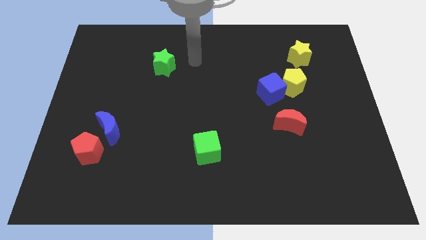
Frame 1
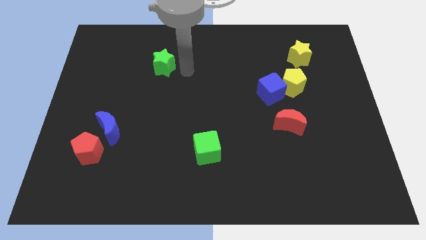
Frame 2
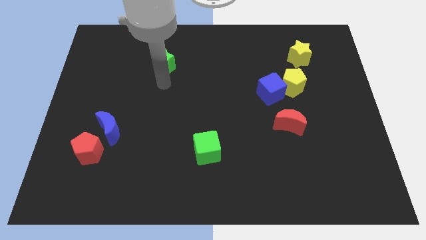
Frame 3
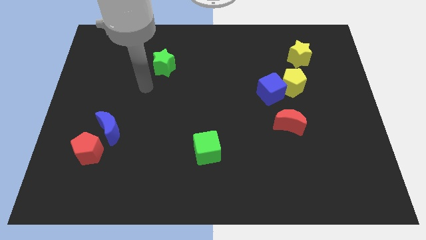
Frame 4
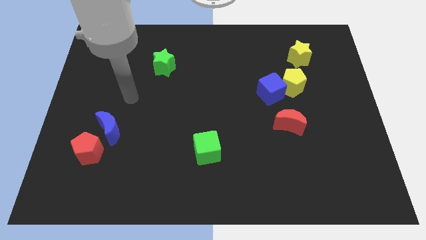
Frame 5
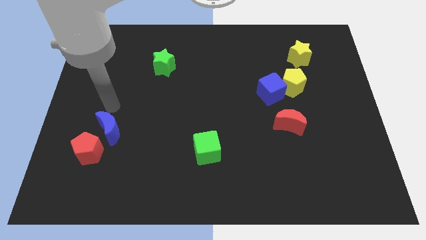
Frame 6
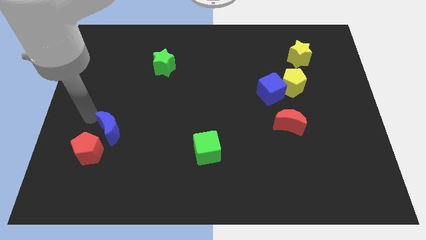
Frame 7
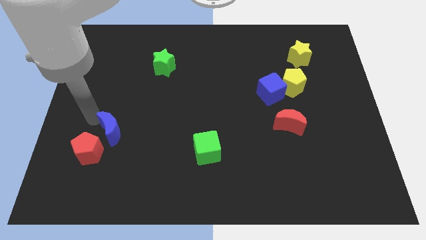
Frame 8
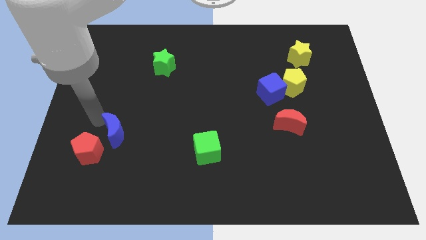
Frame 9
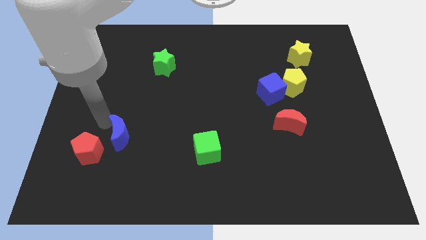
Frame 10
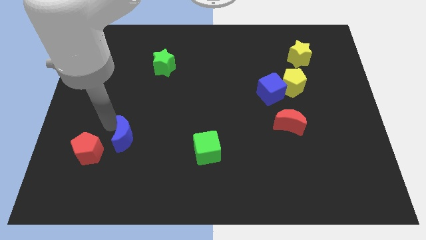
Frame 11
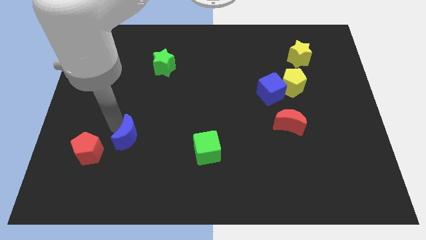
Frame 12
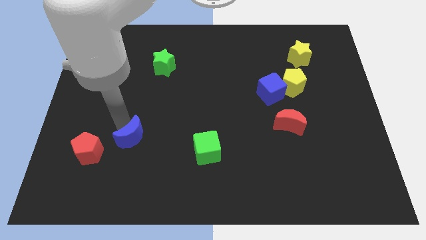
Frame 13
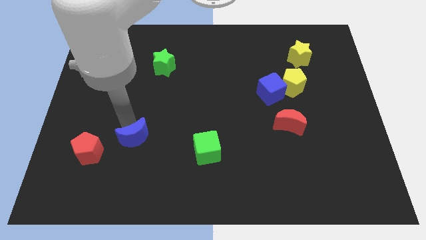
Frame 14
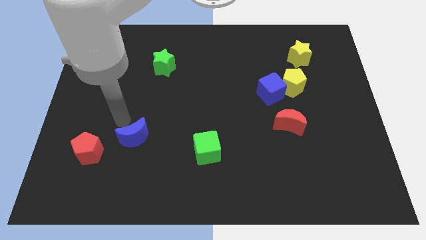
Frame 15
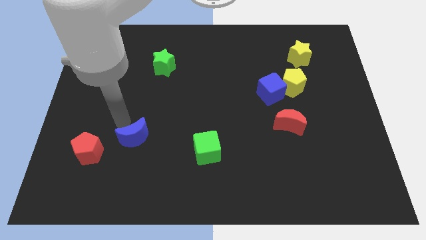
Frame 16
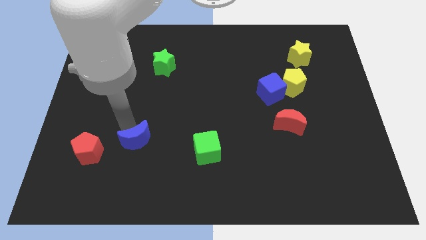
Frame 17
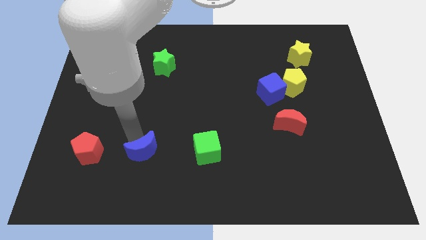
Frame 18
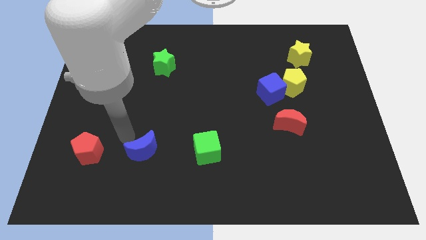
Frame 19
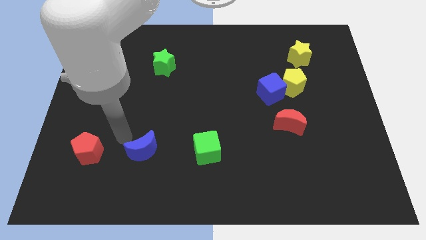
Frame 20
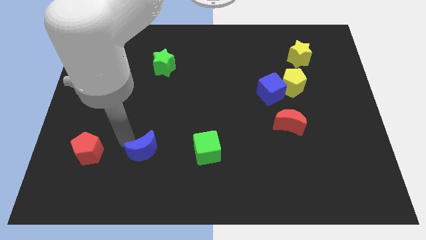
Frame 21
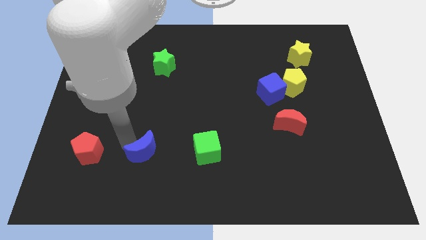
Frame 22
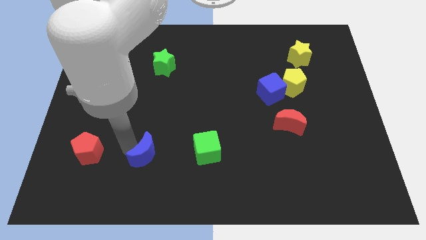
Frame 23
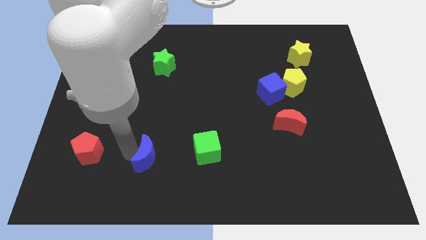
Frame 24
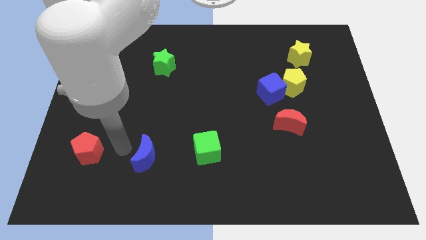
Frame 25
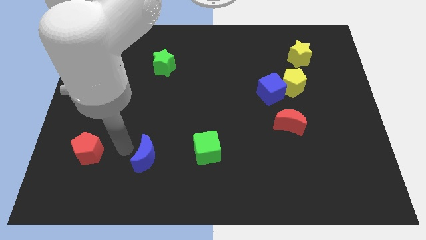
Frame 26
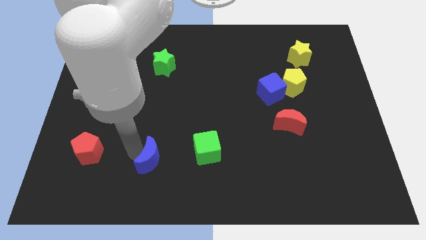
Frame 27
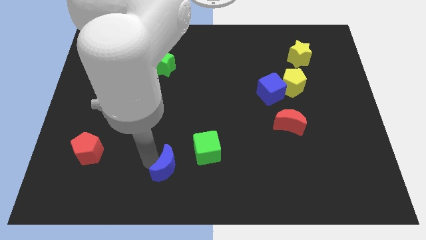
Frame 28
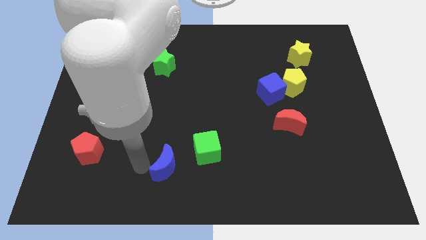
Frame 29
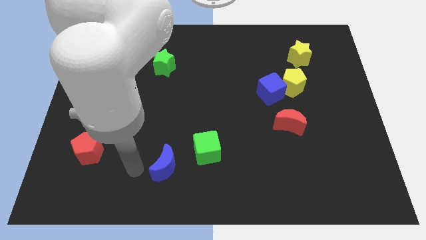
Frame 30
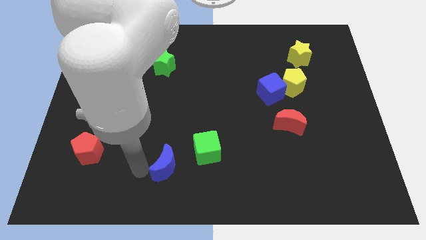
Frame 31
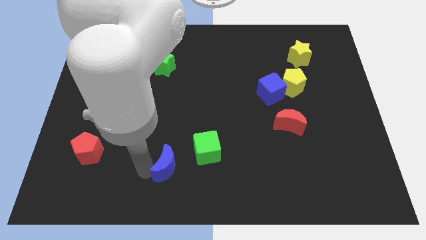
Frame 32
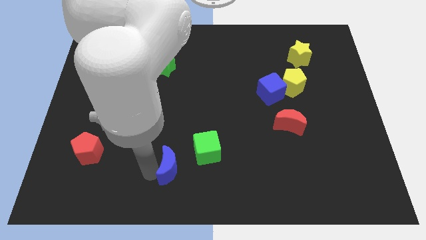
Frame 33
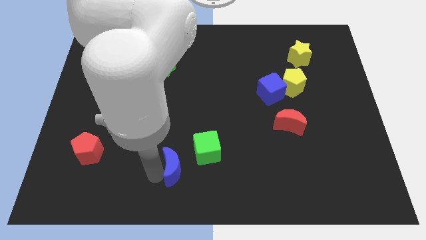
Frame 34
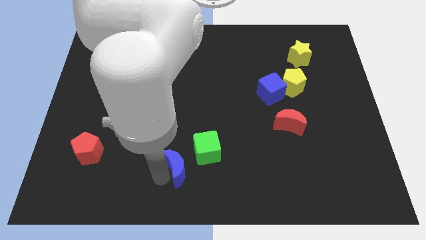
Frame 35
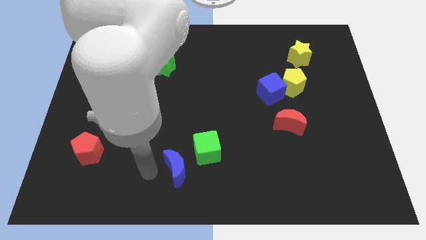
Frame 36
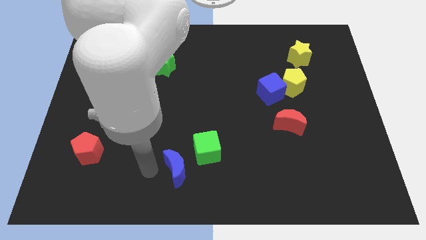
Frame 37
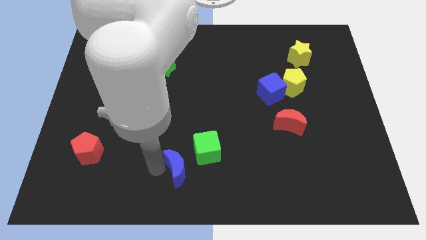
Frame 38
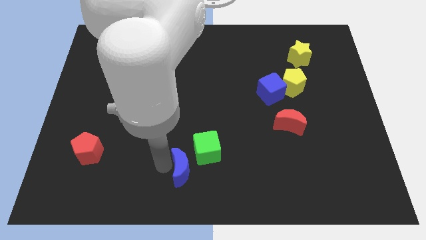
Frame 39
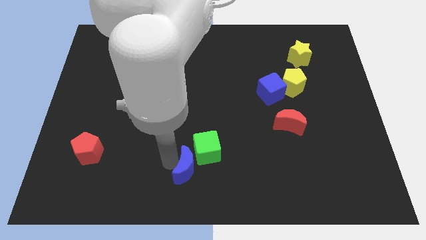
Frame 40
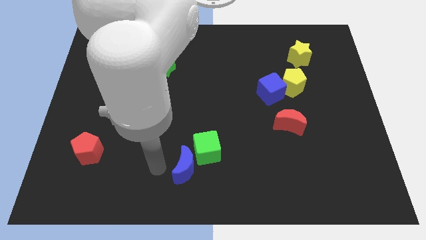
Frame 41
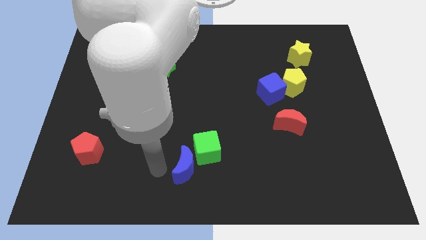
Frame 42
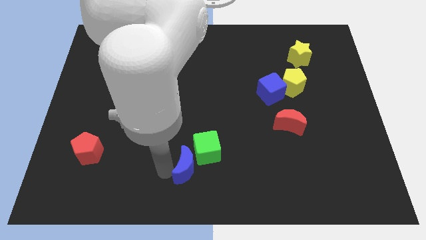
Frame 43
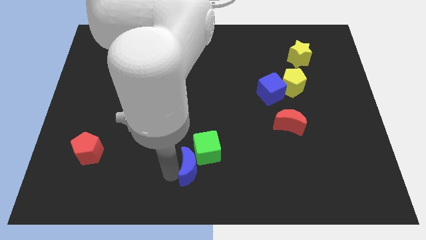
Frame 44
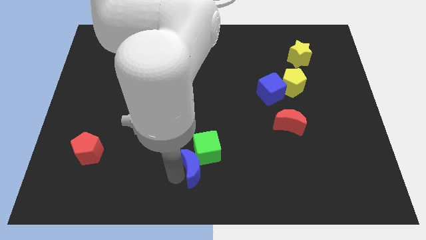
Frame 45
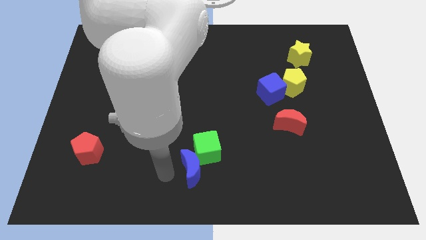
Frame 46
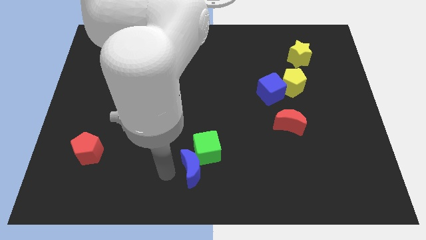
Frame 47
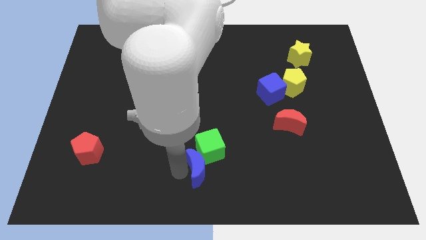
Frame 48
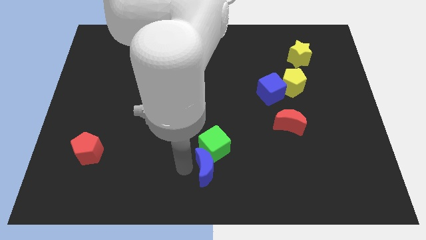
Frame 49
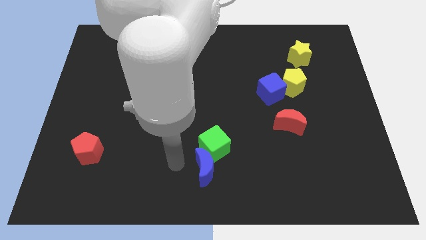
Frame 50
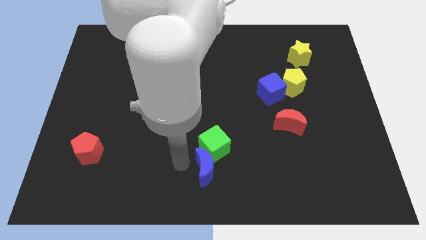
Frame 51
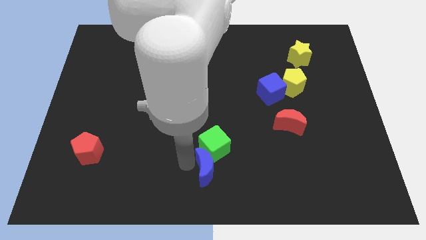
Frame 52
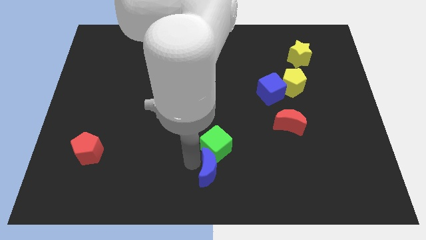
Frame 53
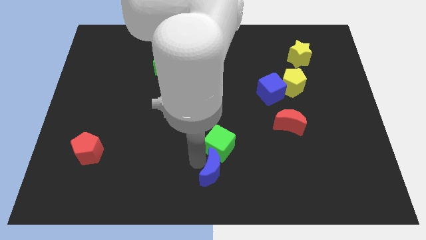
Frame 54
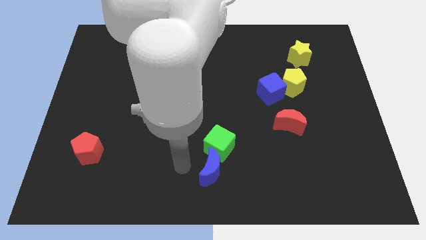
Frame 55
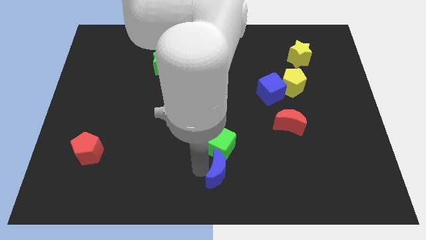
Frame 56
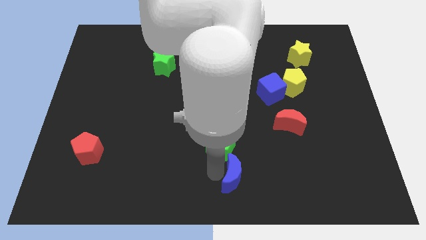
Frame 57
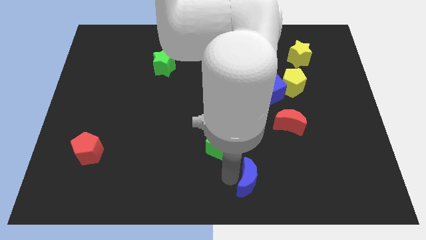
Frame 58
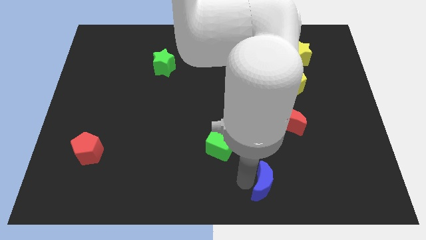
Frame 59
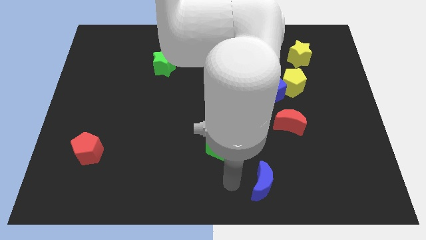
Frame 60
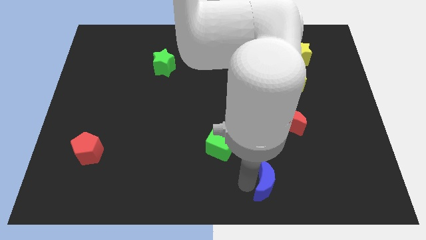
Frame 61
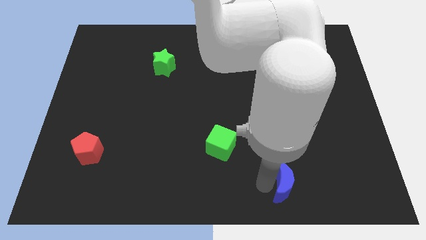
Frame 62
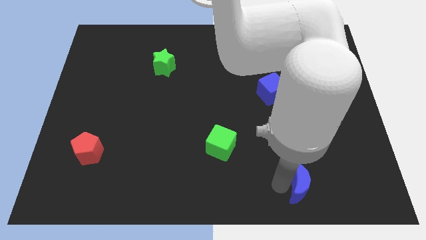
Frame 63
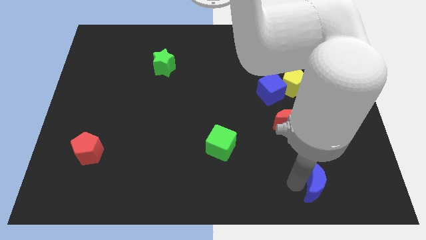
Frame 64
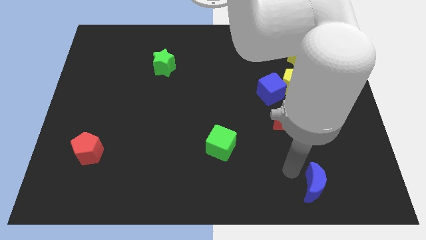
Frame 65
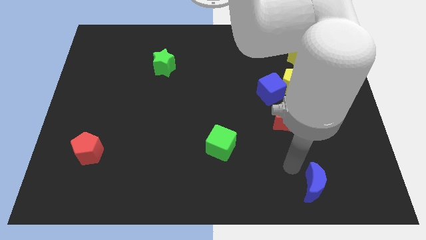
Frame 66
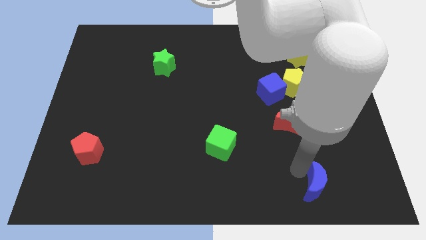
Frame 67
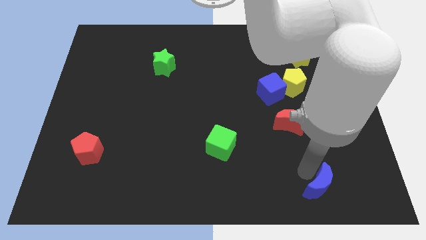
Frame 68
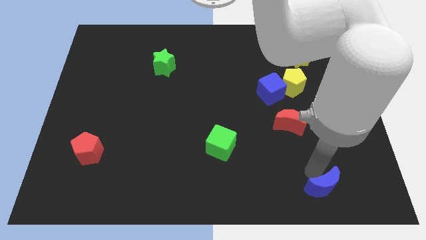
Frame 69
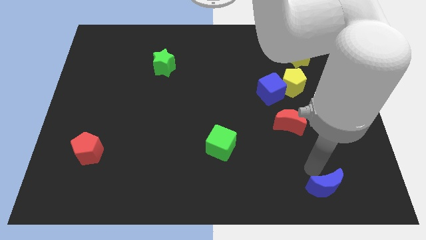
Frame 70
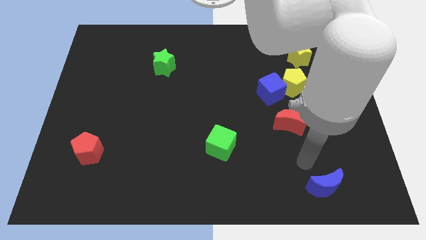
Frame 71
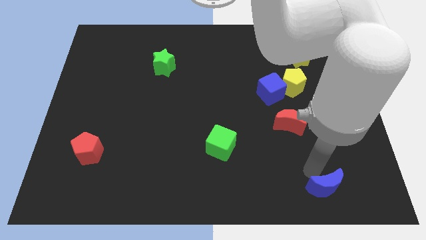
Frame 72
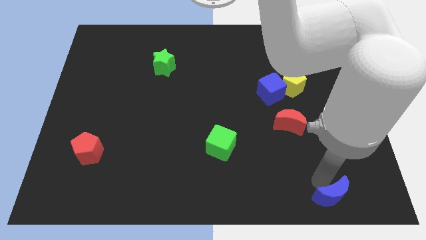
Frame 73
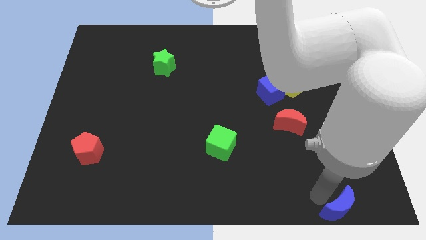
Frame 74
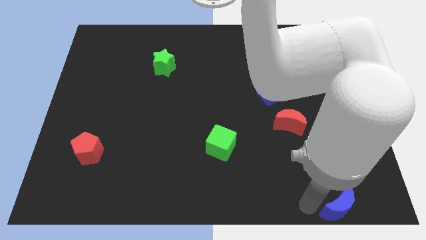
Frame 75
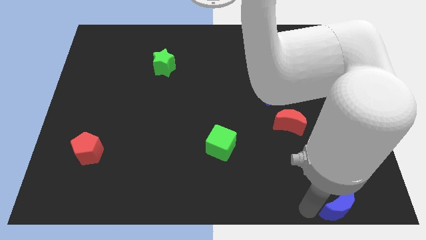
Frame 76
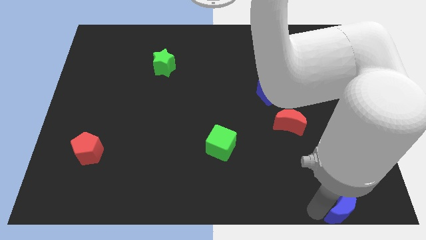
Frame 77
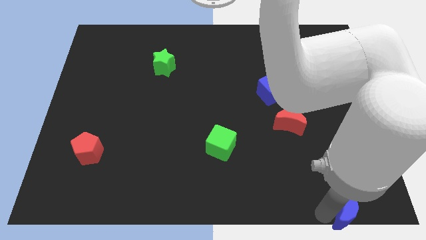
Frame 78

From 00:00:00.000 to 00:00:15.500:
push the blue moon to the bottom right
